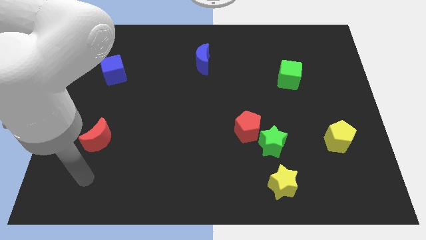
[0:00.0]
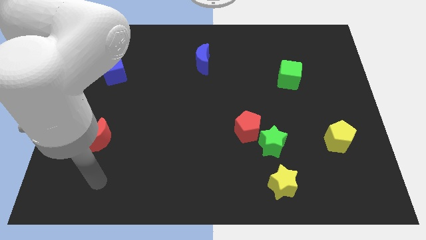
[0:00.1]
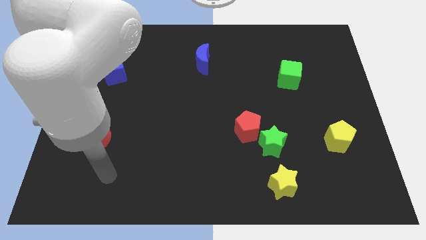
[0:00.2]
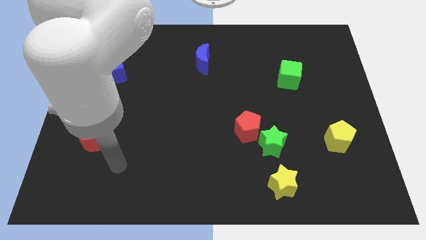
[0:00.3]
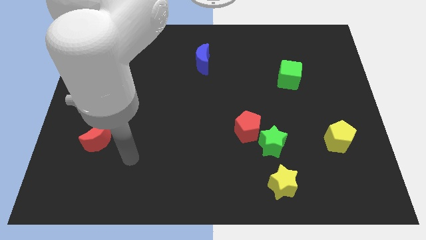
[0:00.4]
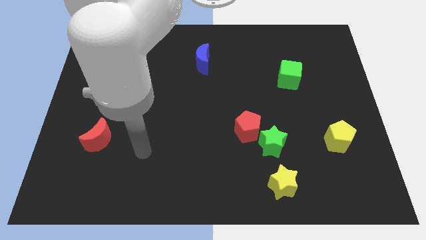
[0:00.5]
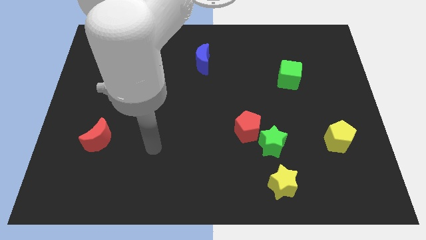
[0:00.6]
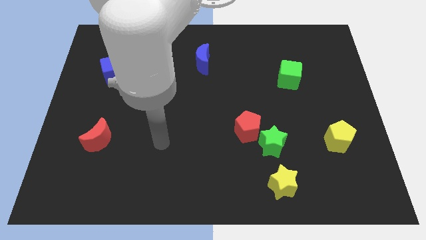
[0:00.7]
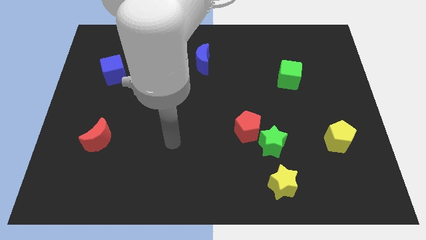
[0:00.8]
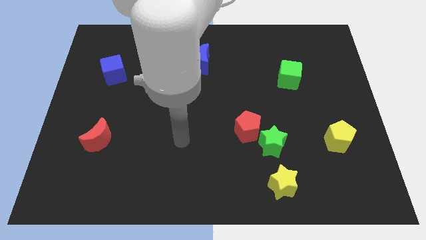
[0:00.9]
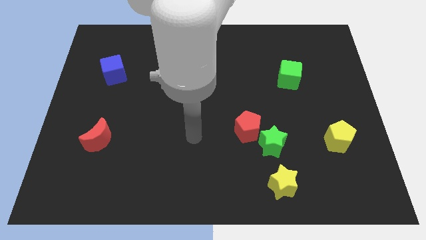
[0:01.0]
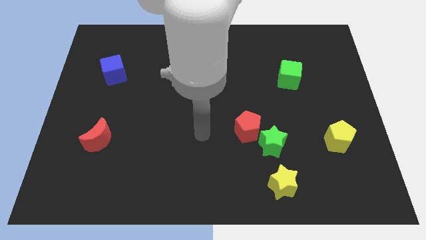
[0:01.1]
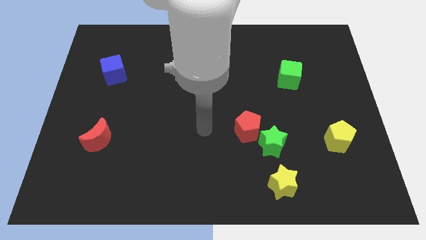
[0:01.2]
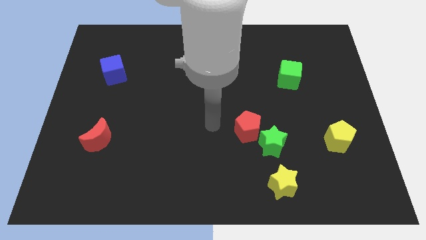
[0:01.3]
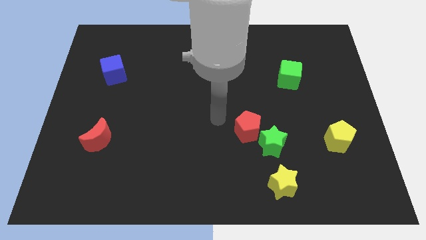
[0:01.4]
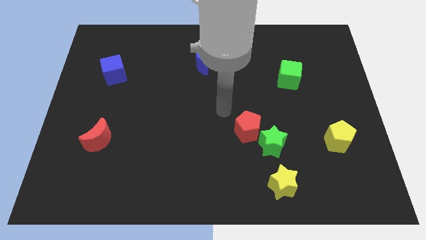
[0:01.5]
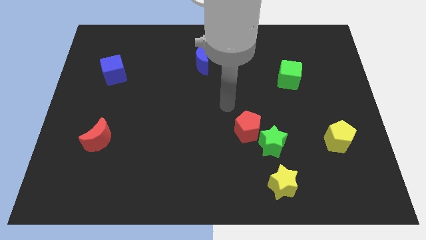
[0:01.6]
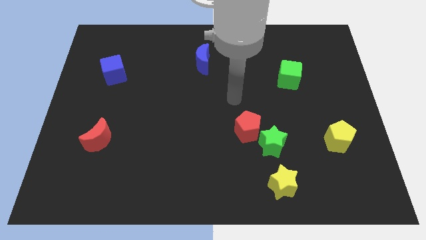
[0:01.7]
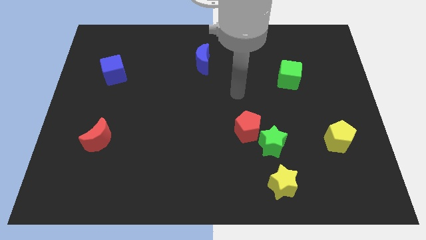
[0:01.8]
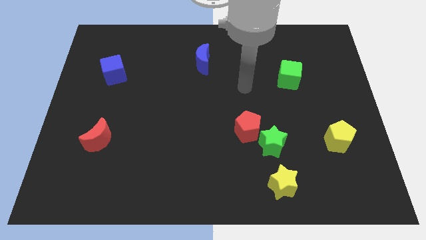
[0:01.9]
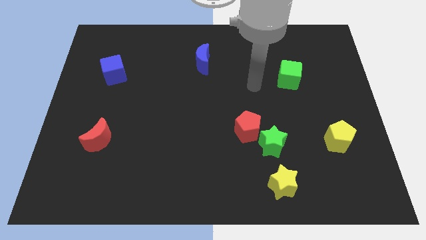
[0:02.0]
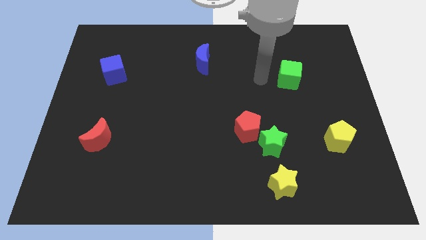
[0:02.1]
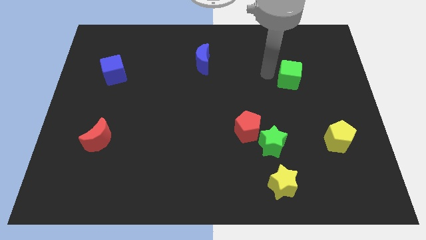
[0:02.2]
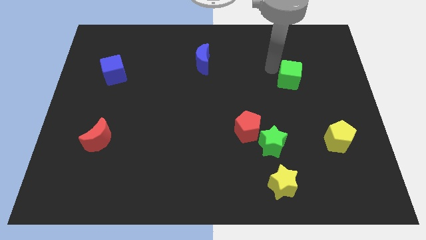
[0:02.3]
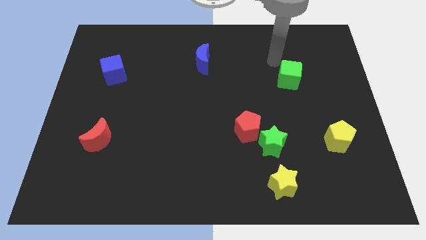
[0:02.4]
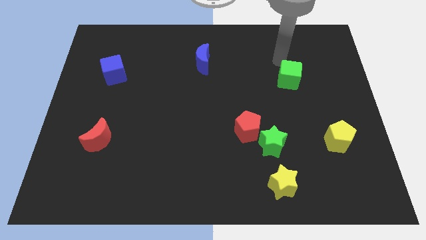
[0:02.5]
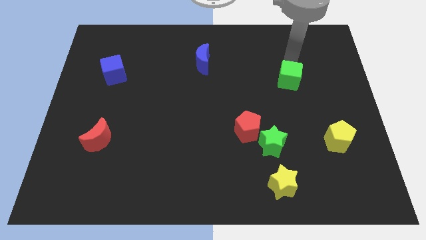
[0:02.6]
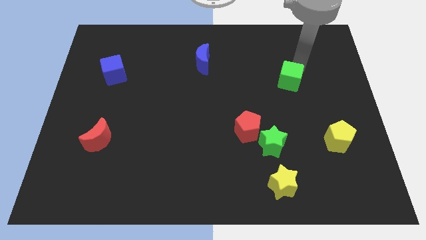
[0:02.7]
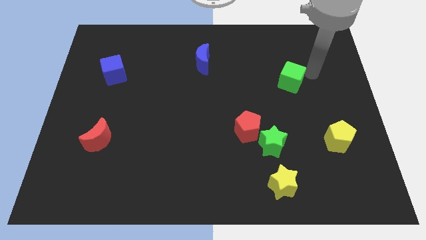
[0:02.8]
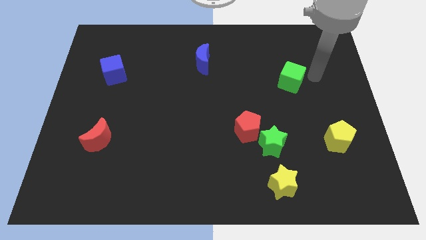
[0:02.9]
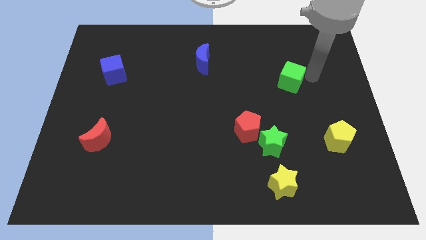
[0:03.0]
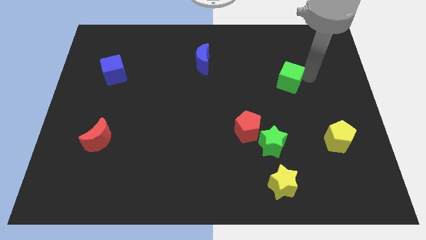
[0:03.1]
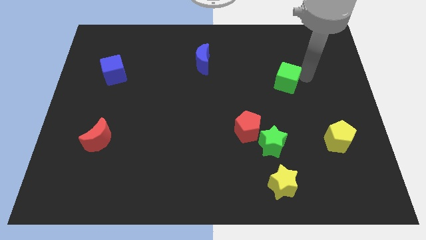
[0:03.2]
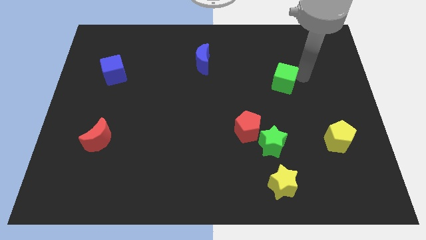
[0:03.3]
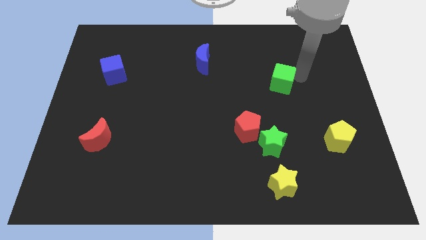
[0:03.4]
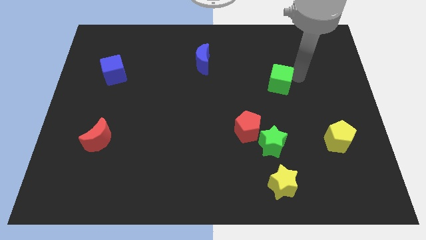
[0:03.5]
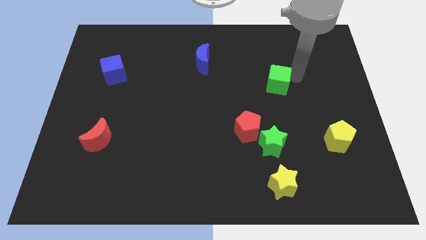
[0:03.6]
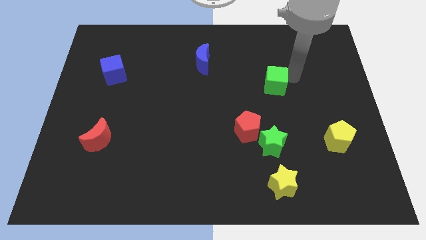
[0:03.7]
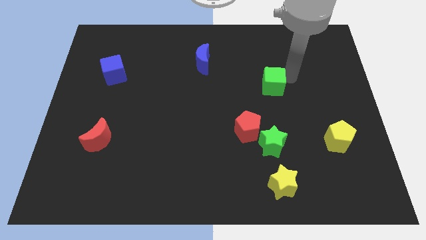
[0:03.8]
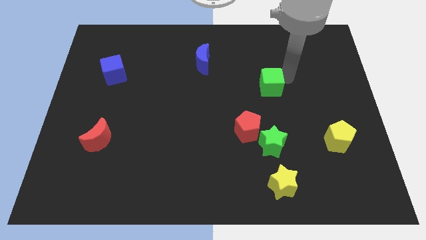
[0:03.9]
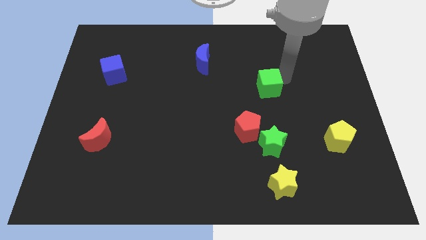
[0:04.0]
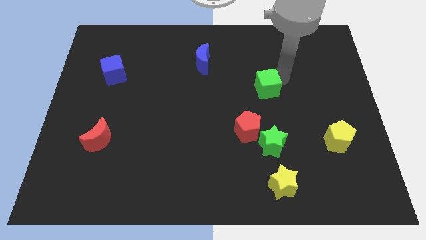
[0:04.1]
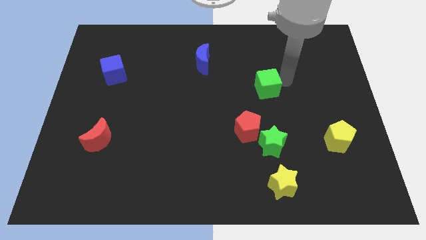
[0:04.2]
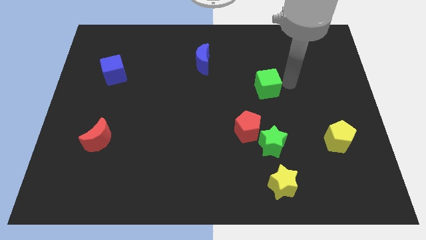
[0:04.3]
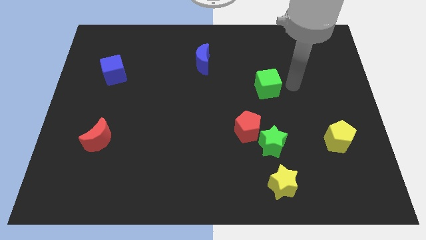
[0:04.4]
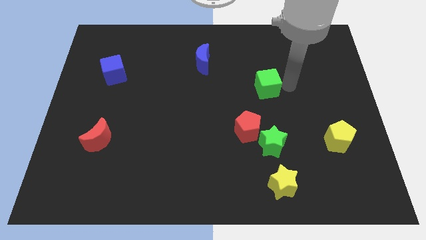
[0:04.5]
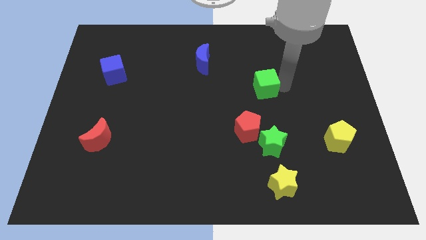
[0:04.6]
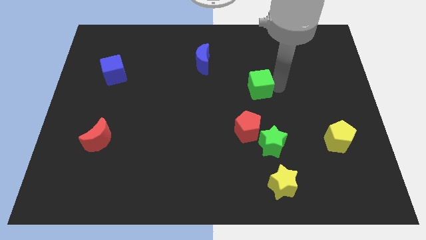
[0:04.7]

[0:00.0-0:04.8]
push the green cube to the middle

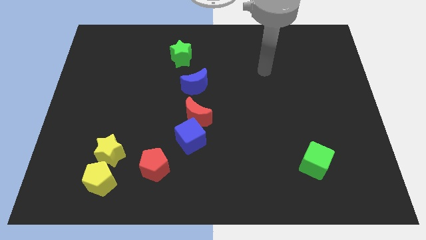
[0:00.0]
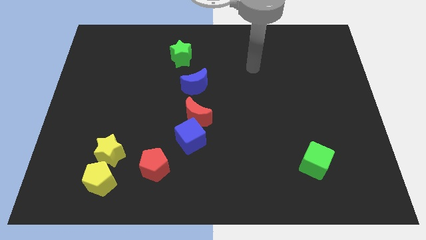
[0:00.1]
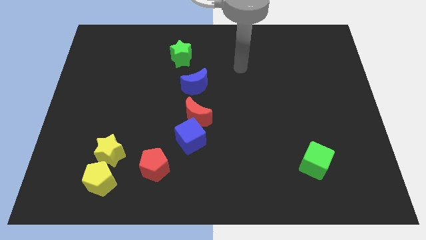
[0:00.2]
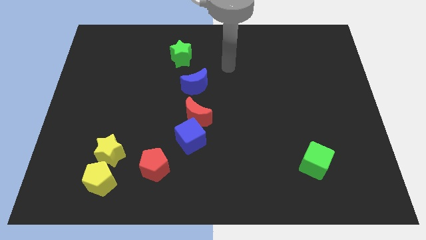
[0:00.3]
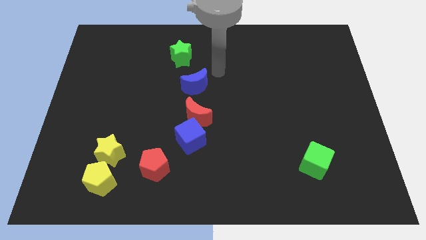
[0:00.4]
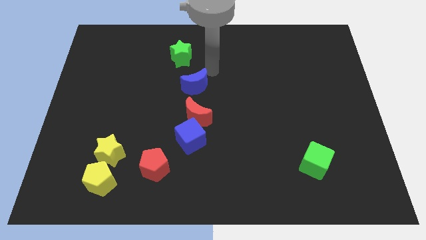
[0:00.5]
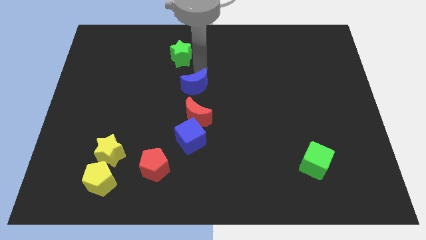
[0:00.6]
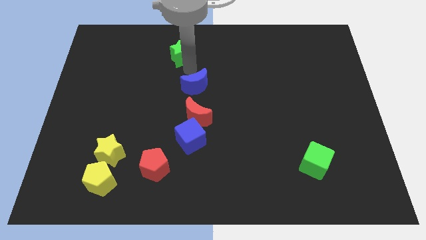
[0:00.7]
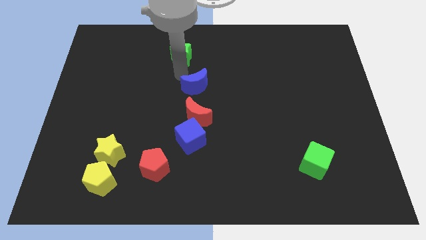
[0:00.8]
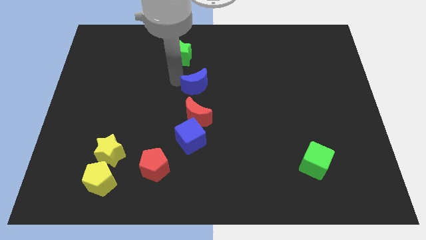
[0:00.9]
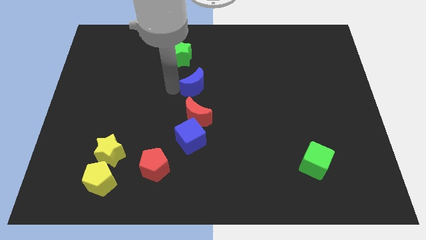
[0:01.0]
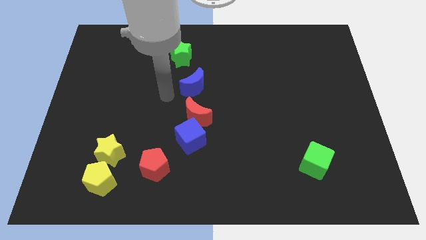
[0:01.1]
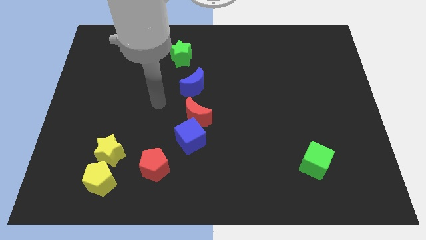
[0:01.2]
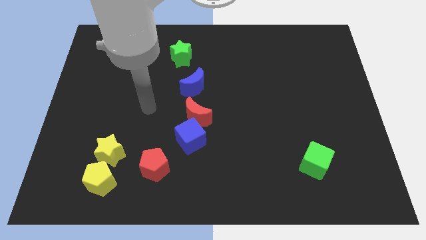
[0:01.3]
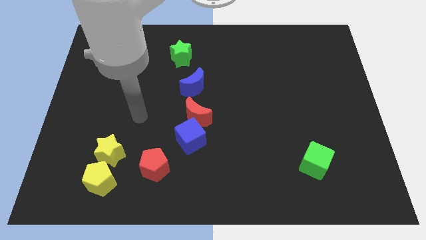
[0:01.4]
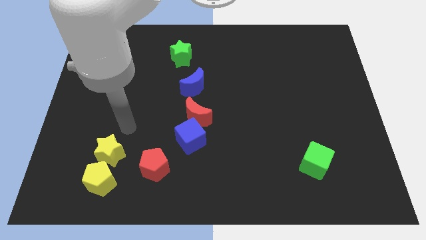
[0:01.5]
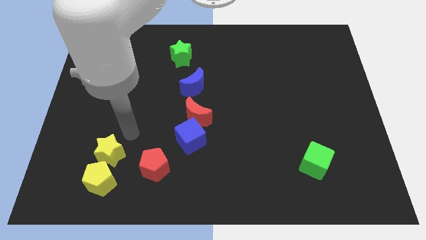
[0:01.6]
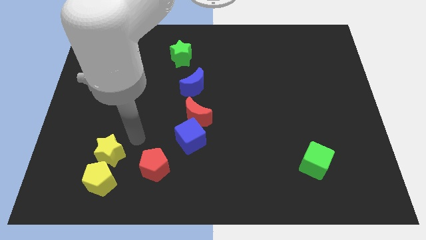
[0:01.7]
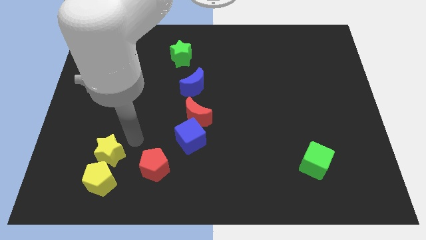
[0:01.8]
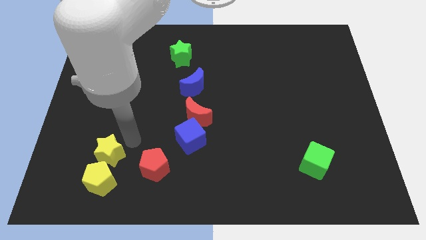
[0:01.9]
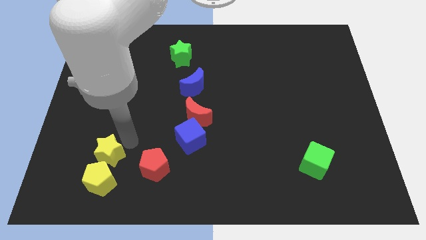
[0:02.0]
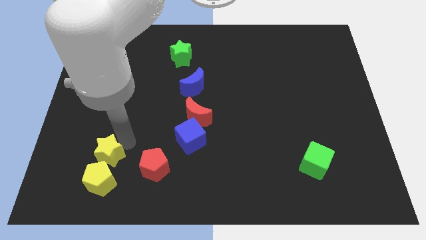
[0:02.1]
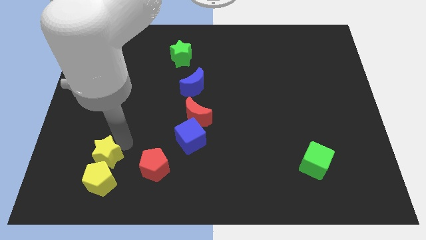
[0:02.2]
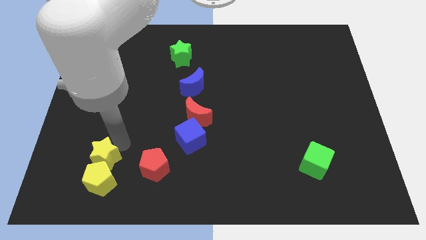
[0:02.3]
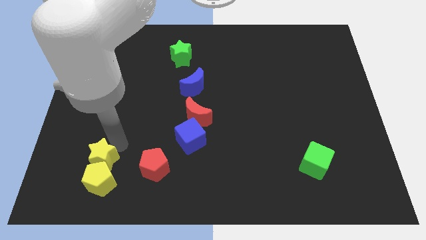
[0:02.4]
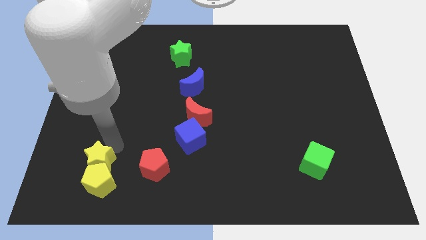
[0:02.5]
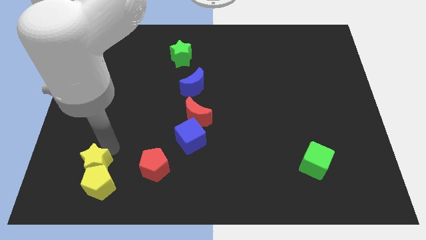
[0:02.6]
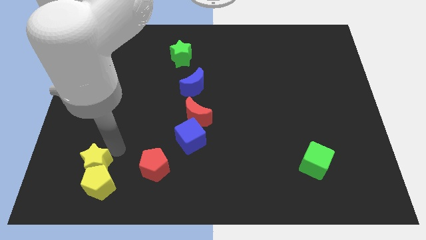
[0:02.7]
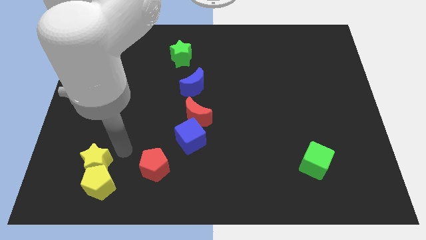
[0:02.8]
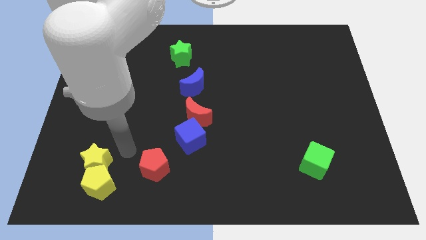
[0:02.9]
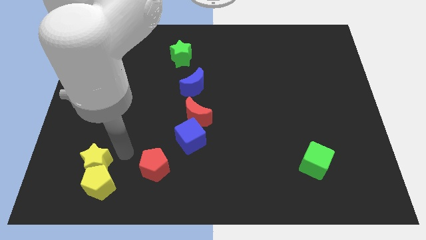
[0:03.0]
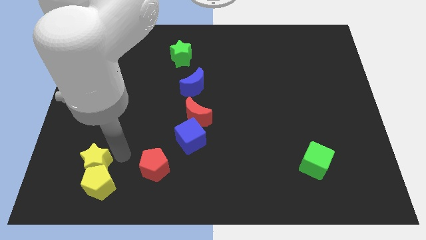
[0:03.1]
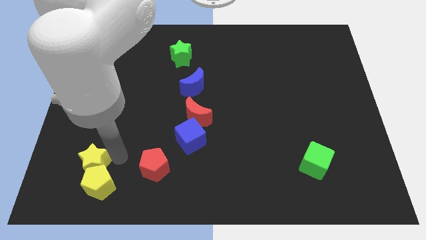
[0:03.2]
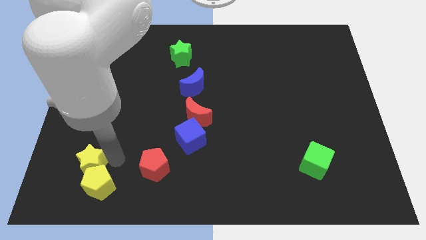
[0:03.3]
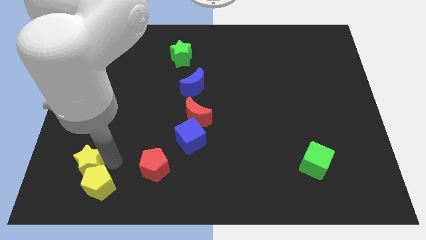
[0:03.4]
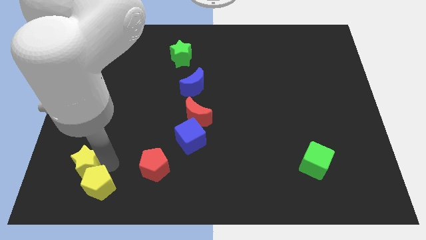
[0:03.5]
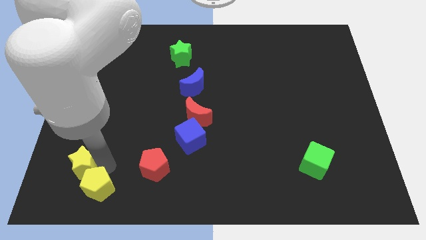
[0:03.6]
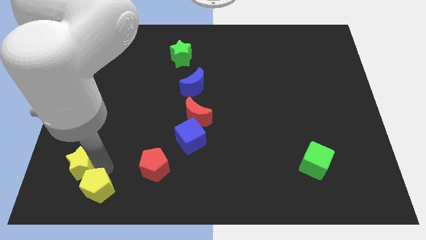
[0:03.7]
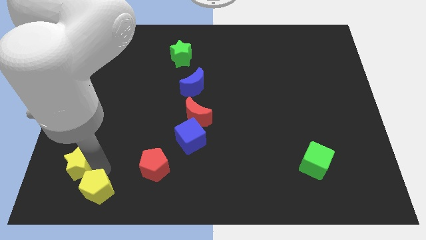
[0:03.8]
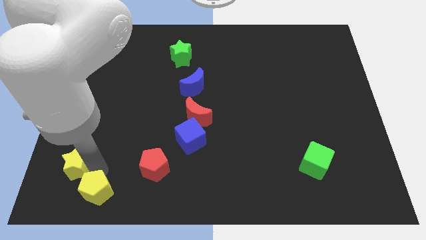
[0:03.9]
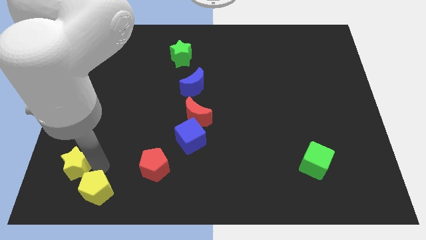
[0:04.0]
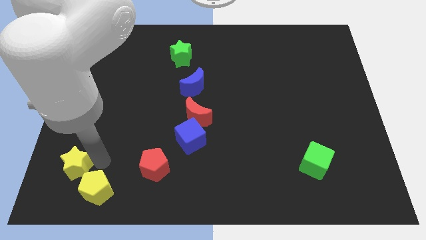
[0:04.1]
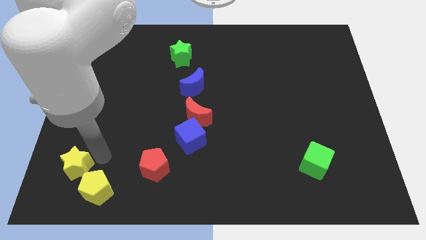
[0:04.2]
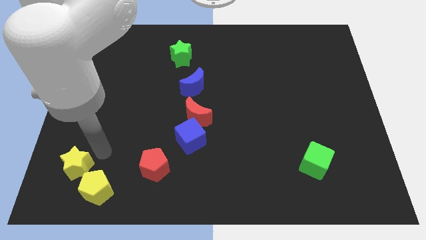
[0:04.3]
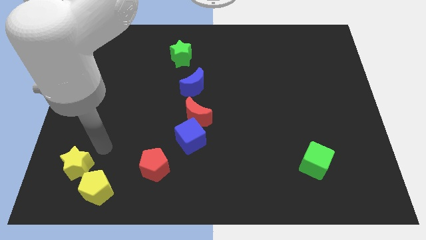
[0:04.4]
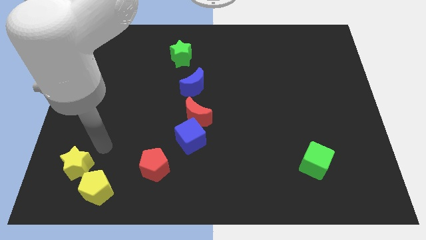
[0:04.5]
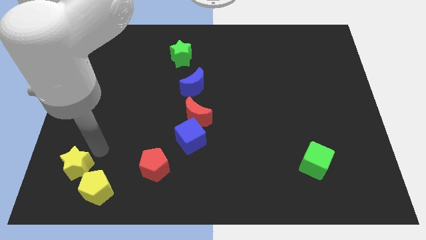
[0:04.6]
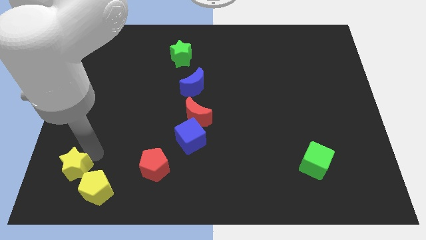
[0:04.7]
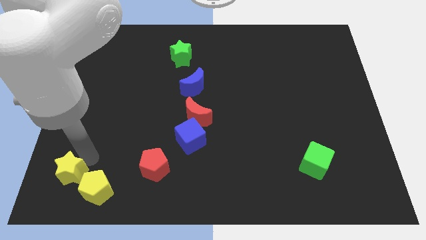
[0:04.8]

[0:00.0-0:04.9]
move the yellow star to the bottom left corner
